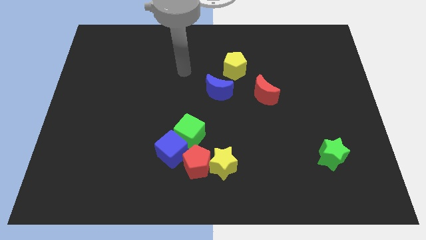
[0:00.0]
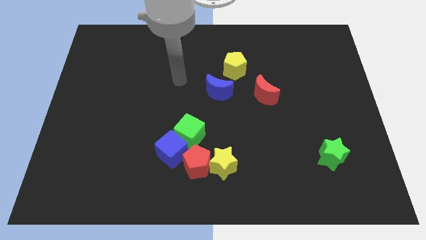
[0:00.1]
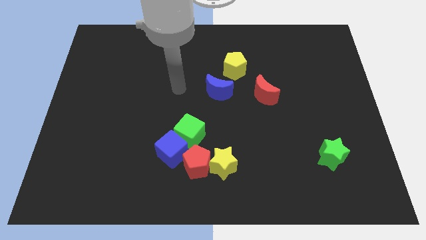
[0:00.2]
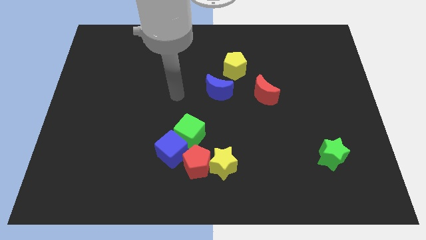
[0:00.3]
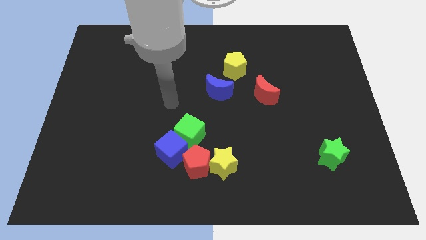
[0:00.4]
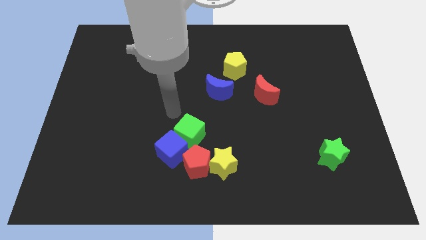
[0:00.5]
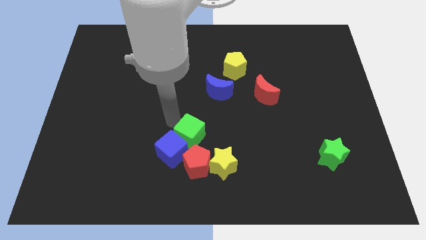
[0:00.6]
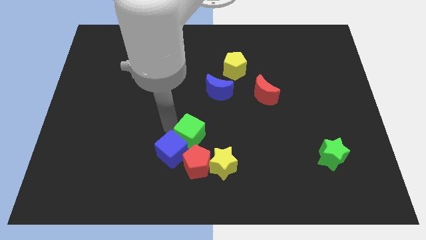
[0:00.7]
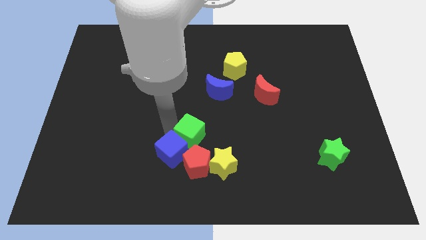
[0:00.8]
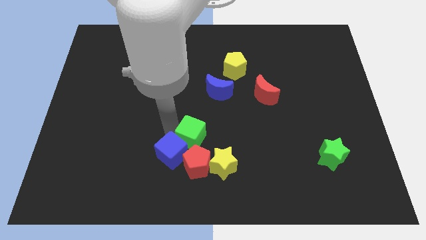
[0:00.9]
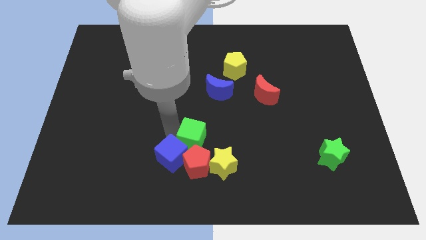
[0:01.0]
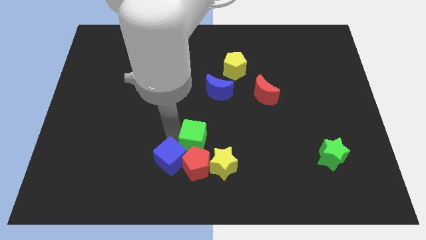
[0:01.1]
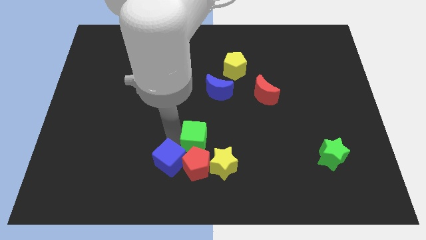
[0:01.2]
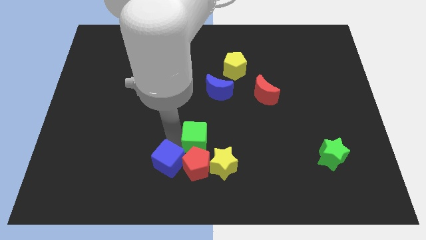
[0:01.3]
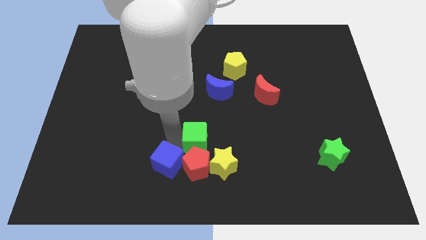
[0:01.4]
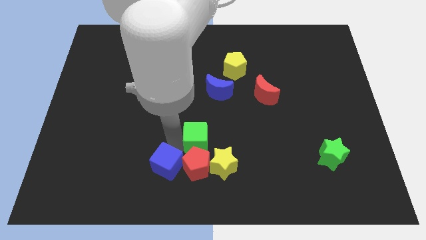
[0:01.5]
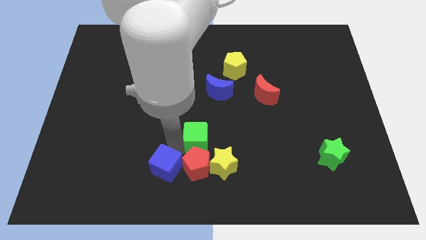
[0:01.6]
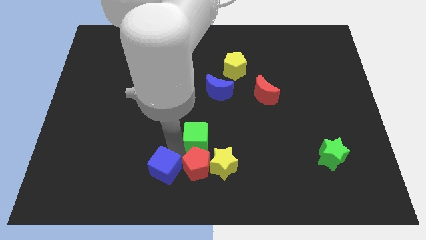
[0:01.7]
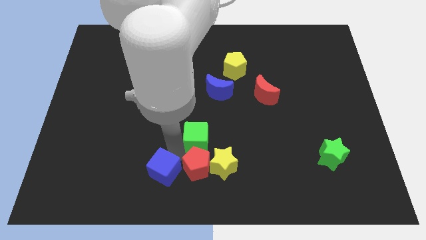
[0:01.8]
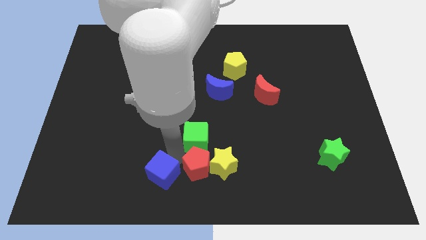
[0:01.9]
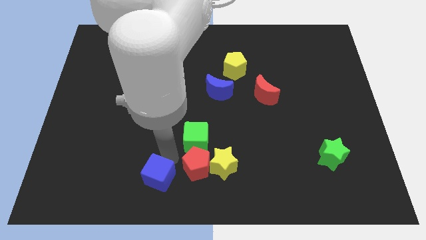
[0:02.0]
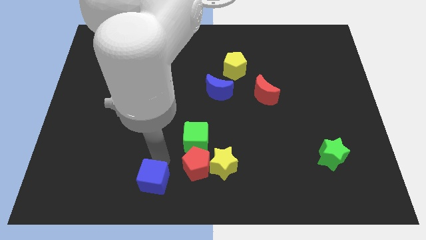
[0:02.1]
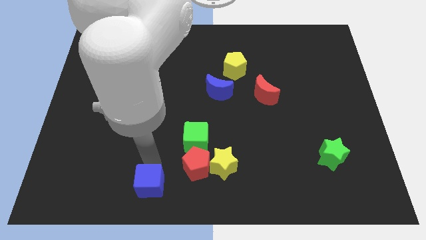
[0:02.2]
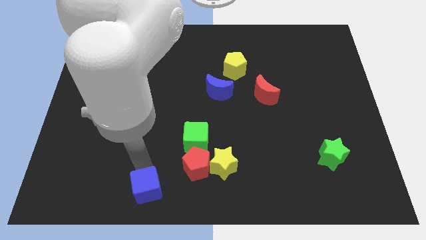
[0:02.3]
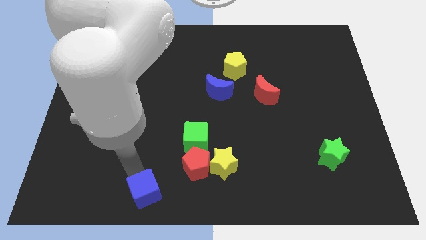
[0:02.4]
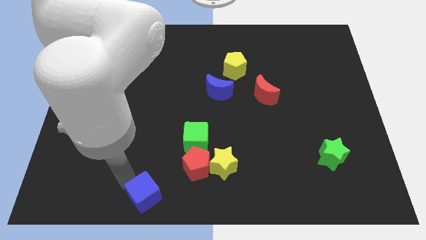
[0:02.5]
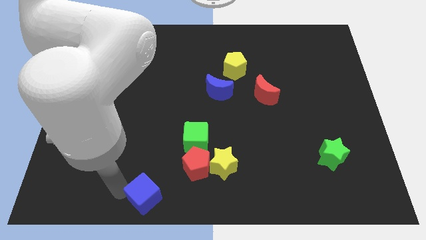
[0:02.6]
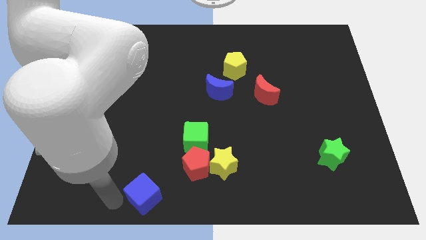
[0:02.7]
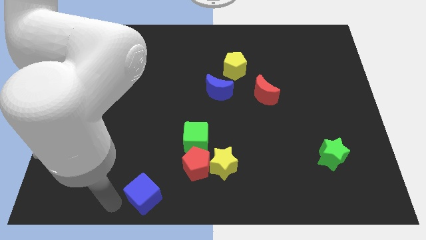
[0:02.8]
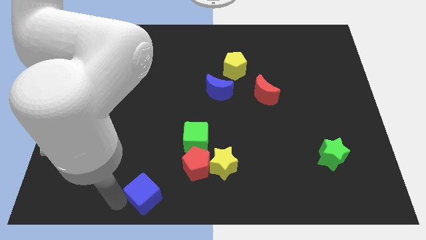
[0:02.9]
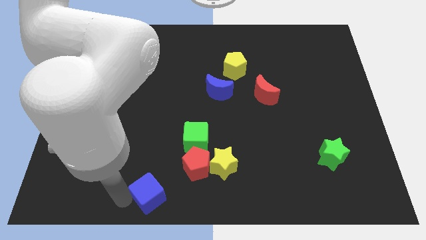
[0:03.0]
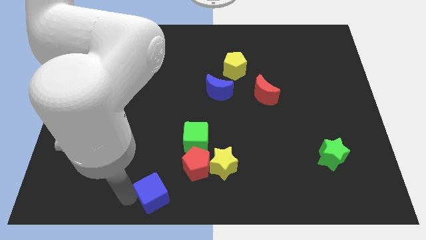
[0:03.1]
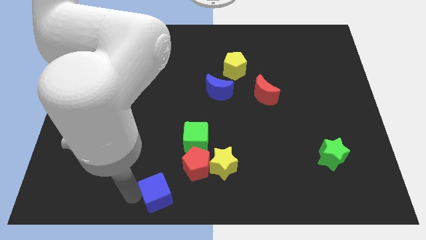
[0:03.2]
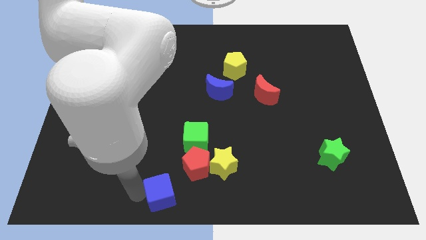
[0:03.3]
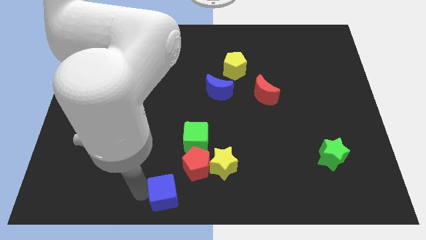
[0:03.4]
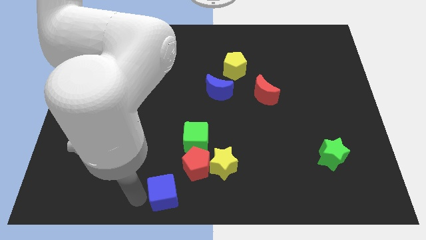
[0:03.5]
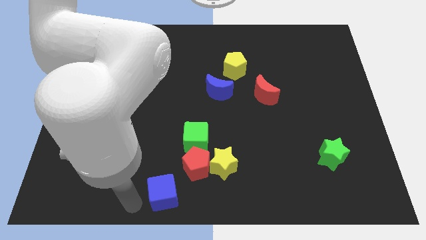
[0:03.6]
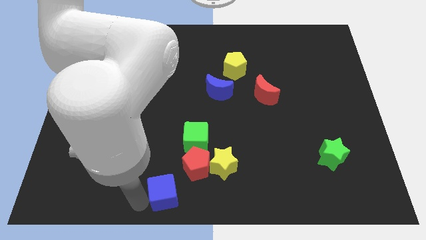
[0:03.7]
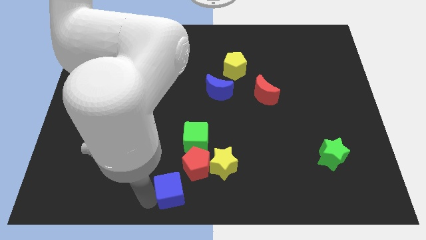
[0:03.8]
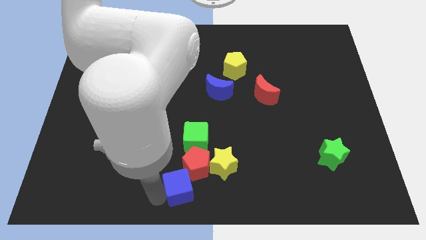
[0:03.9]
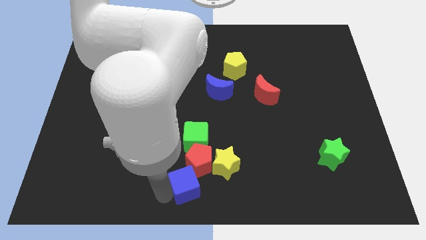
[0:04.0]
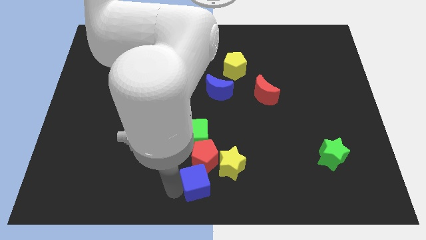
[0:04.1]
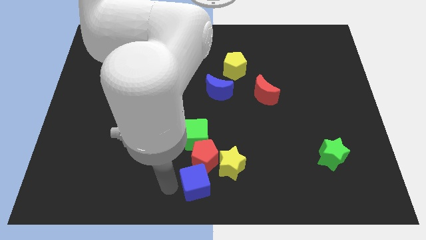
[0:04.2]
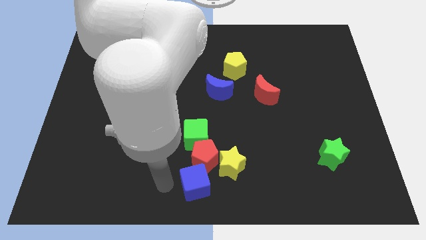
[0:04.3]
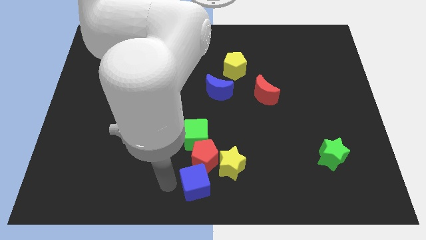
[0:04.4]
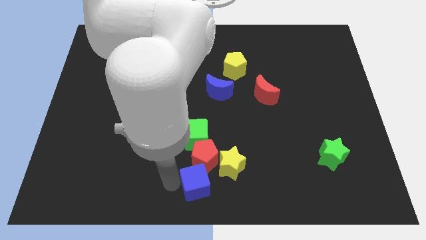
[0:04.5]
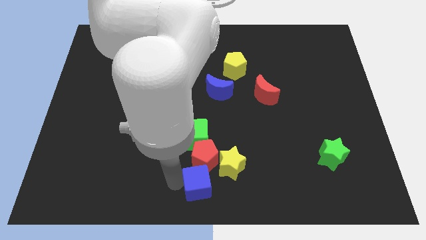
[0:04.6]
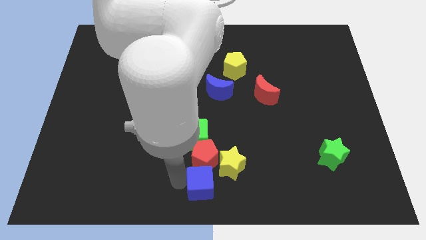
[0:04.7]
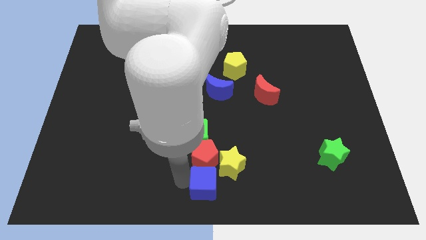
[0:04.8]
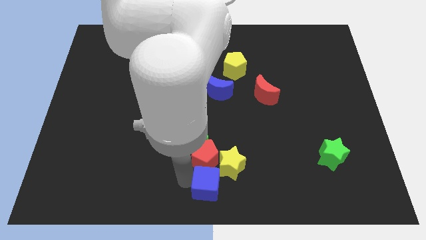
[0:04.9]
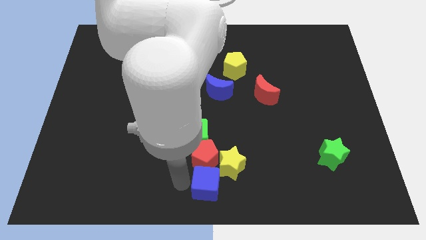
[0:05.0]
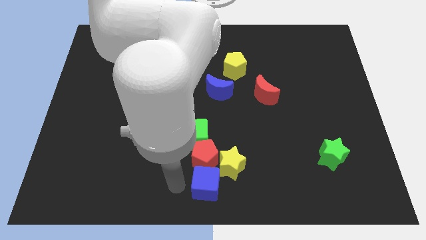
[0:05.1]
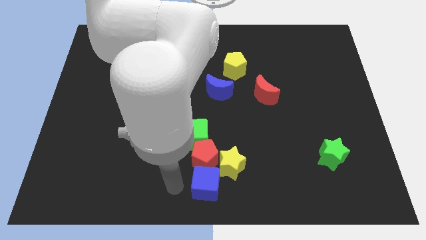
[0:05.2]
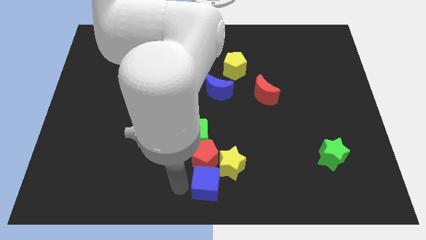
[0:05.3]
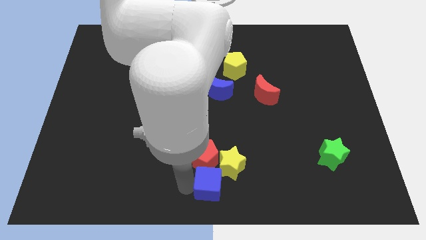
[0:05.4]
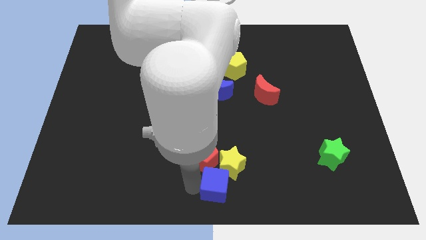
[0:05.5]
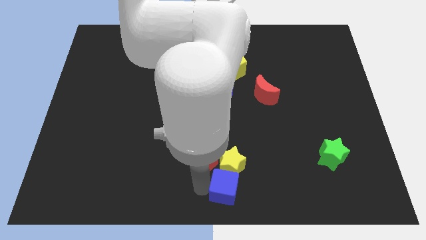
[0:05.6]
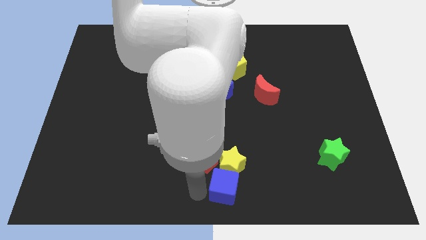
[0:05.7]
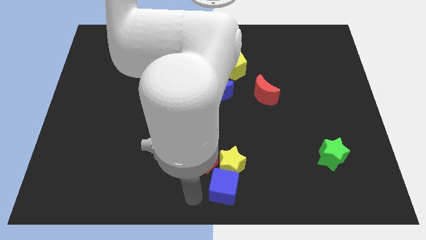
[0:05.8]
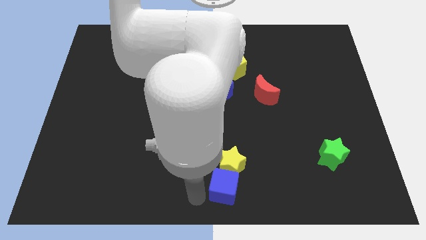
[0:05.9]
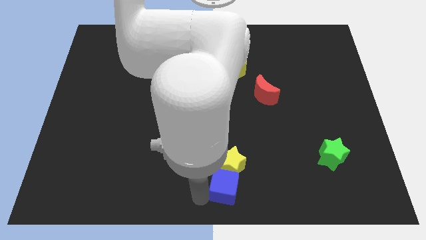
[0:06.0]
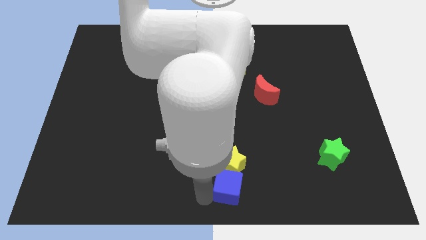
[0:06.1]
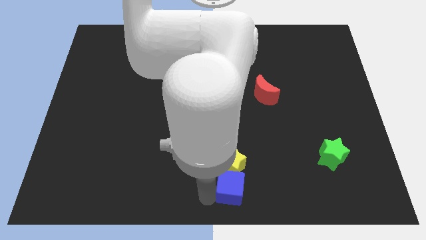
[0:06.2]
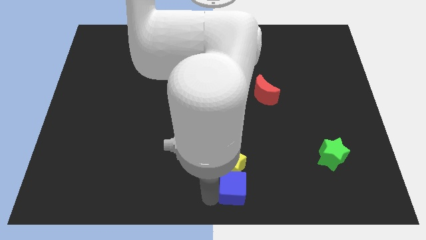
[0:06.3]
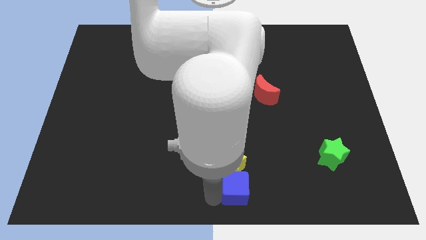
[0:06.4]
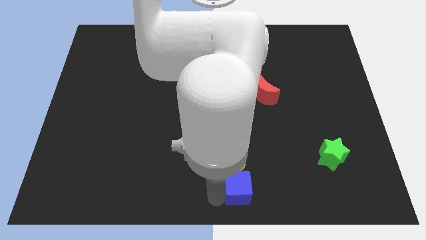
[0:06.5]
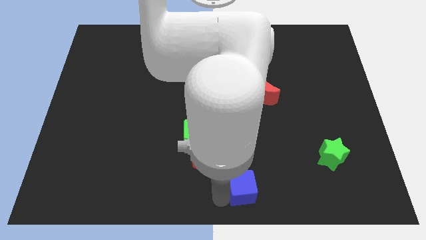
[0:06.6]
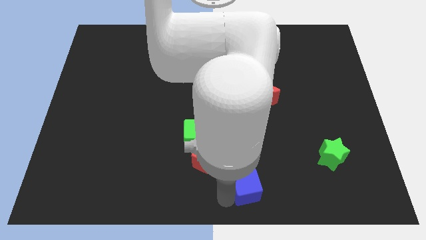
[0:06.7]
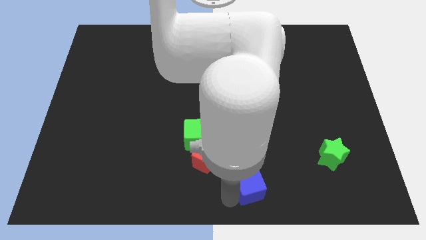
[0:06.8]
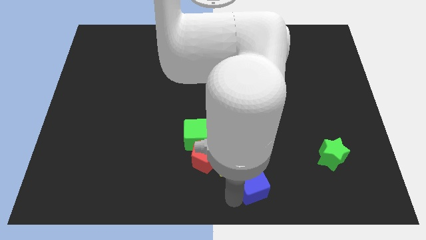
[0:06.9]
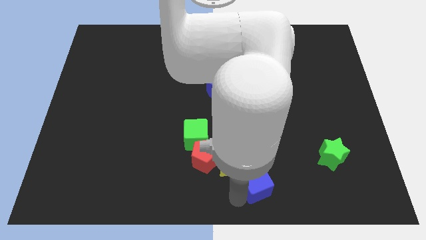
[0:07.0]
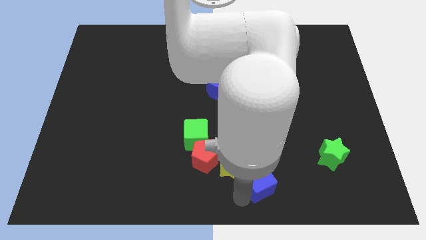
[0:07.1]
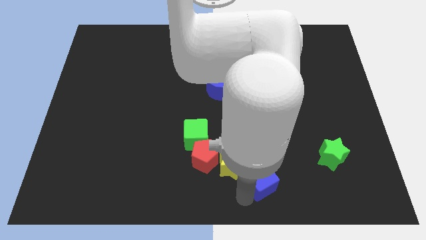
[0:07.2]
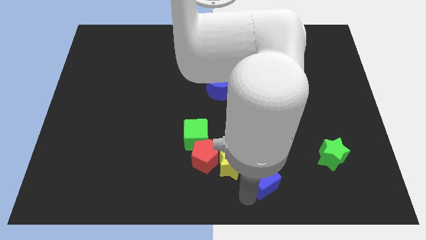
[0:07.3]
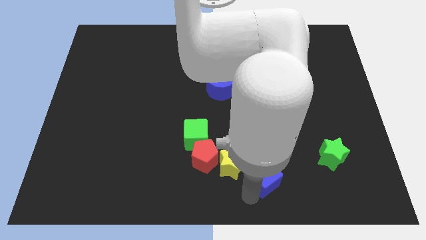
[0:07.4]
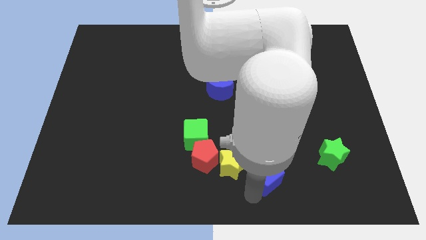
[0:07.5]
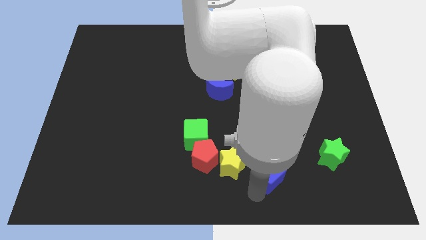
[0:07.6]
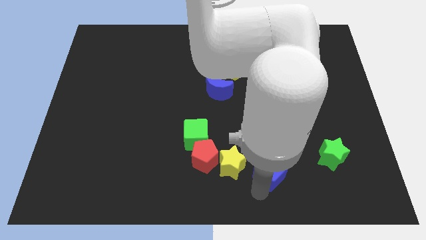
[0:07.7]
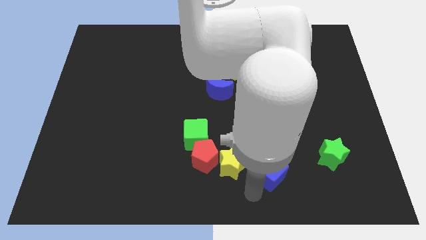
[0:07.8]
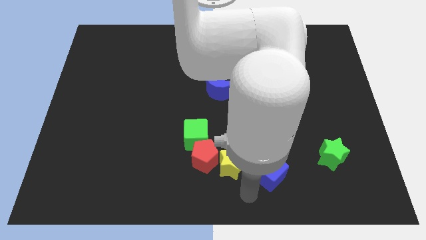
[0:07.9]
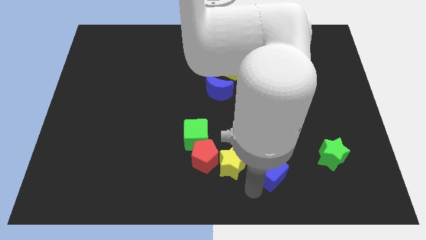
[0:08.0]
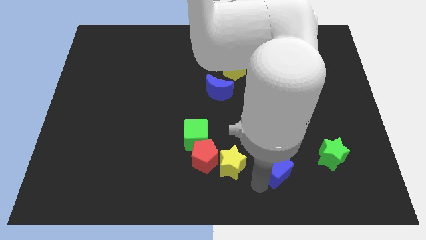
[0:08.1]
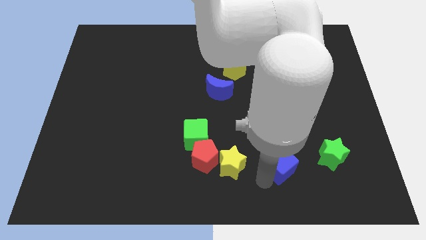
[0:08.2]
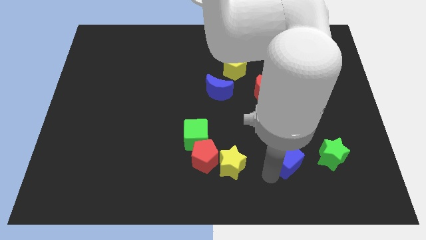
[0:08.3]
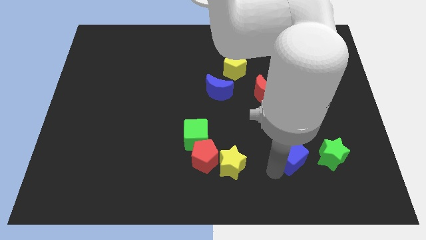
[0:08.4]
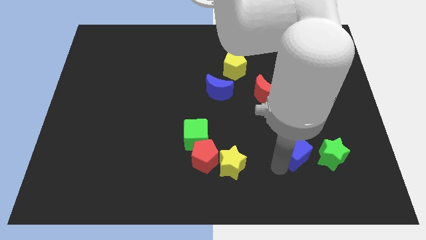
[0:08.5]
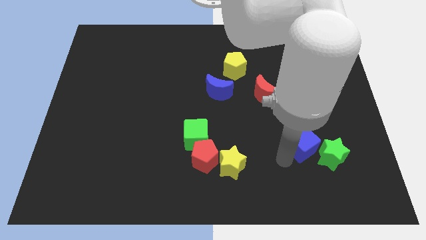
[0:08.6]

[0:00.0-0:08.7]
push the blue cube next to the green star
